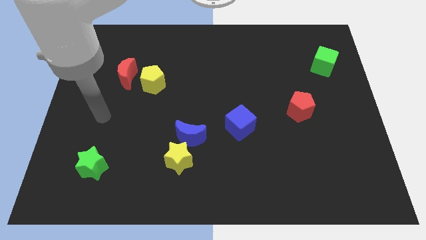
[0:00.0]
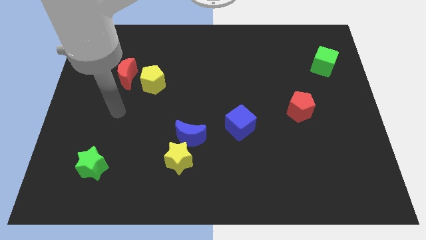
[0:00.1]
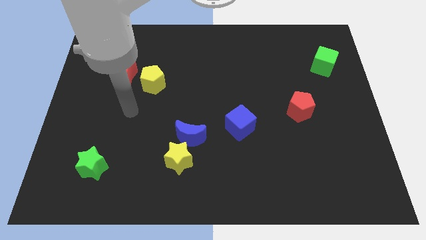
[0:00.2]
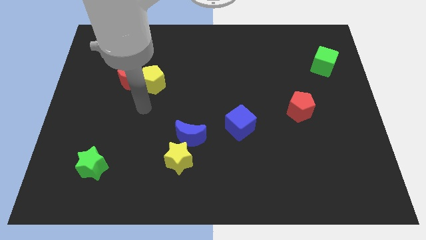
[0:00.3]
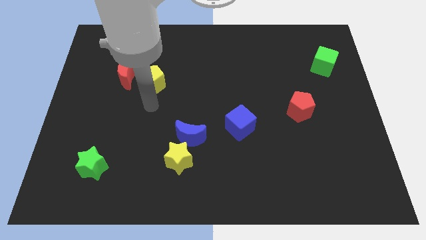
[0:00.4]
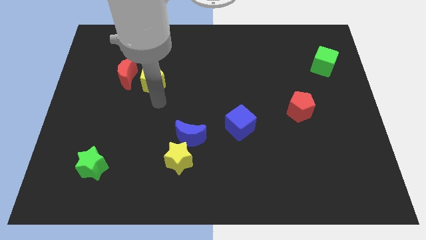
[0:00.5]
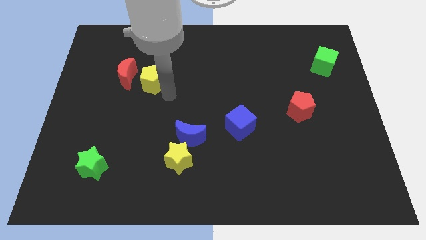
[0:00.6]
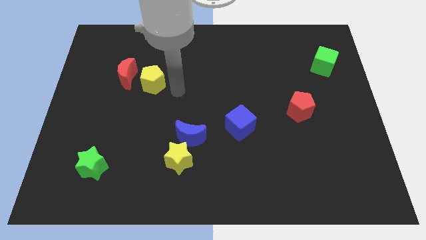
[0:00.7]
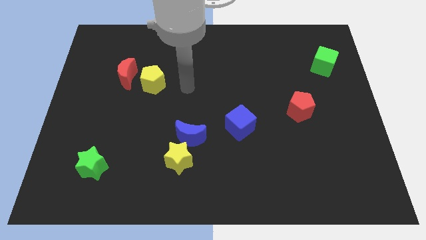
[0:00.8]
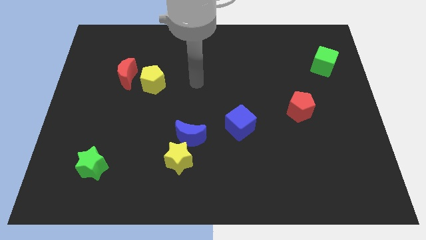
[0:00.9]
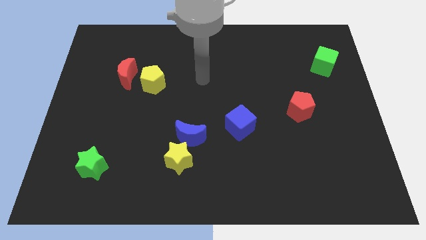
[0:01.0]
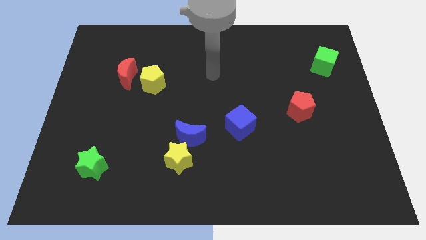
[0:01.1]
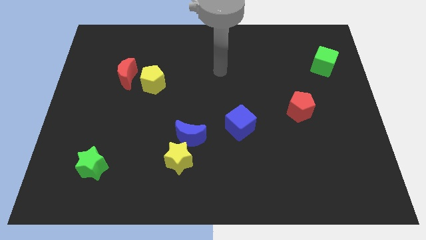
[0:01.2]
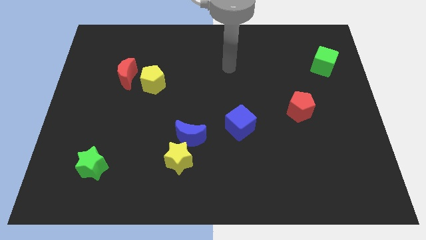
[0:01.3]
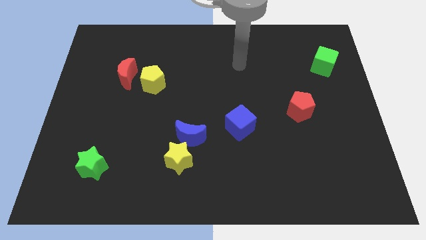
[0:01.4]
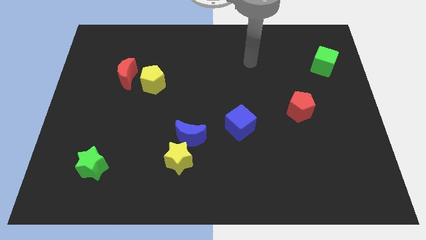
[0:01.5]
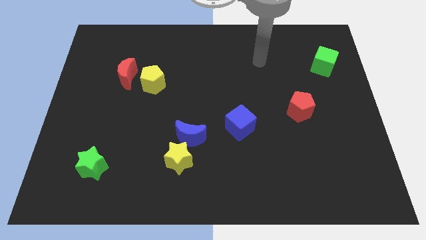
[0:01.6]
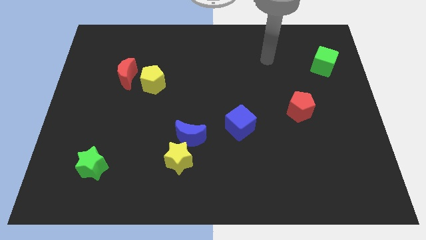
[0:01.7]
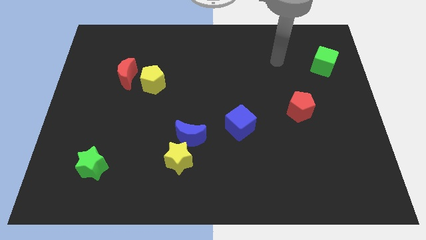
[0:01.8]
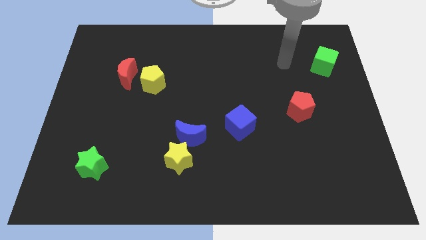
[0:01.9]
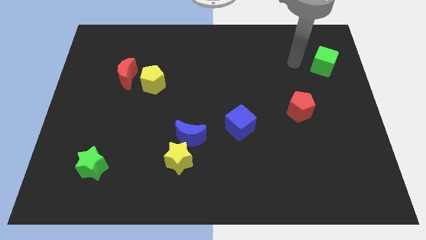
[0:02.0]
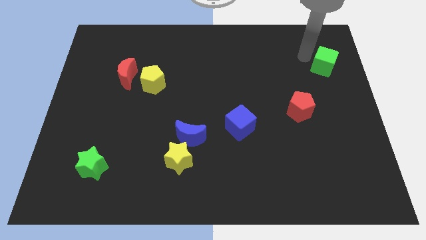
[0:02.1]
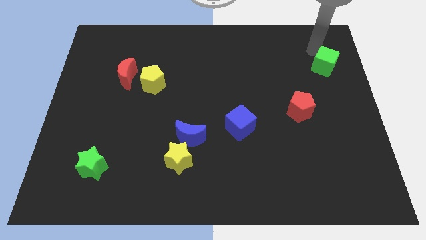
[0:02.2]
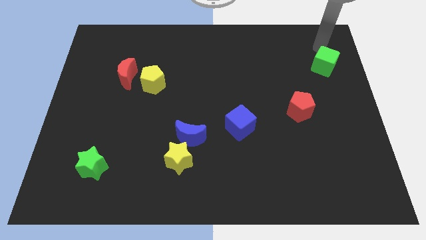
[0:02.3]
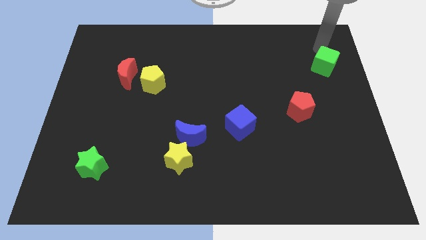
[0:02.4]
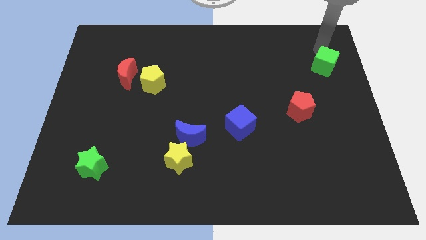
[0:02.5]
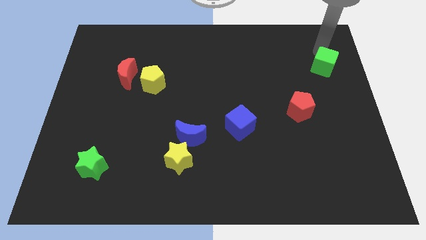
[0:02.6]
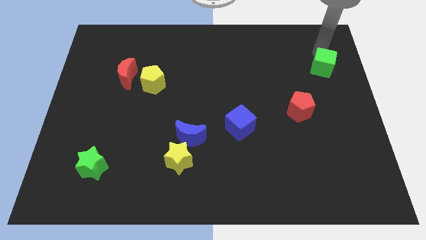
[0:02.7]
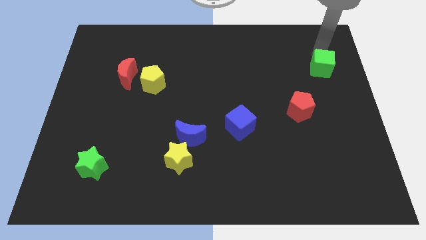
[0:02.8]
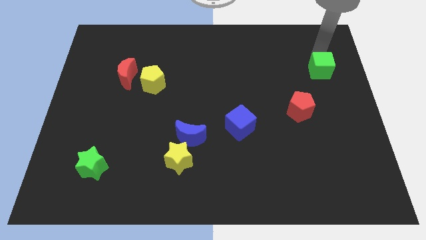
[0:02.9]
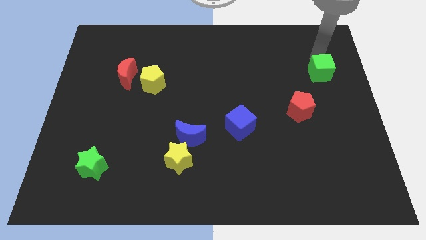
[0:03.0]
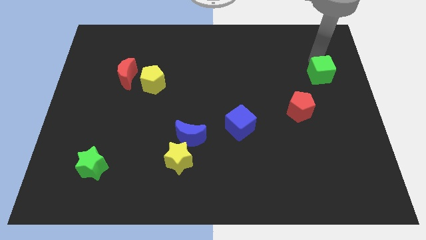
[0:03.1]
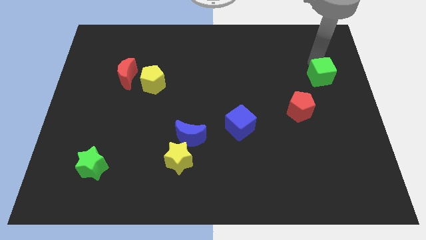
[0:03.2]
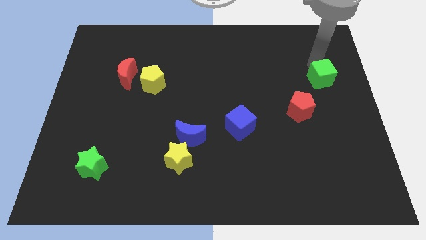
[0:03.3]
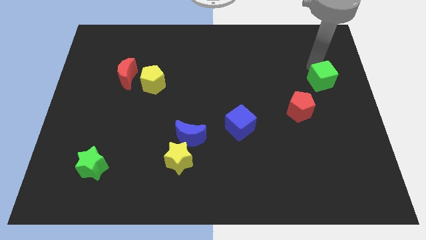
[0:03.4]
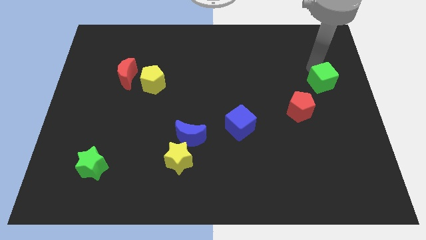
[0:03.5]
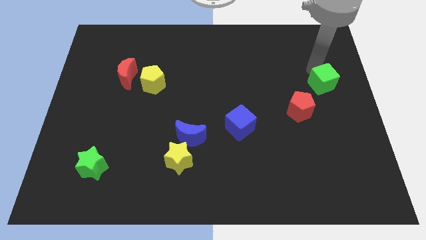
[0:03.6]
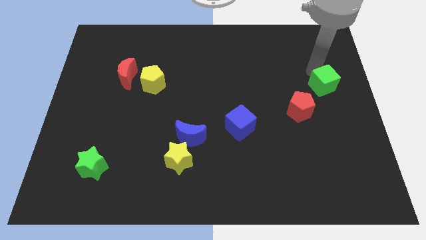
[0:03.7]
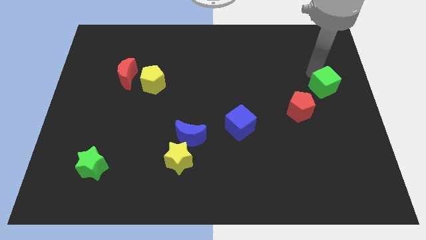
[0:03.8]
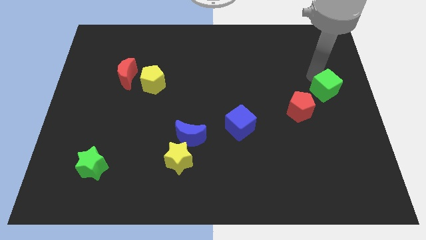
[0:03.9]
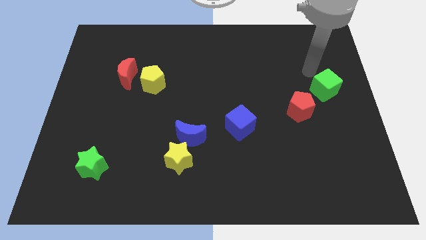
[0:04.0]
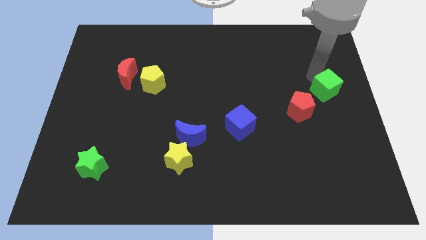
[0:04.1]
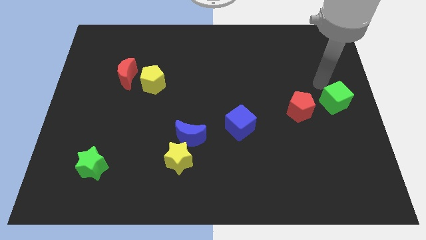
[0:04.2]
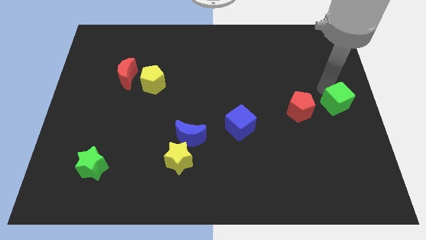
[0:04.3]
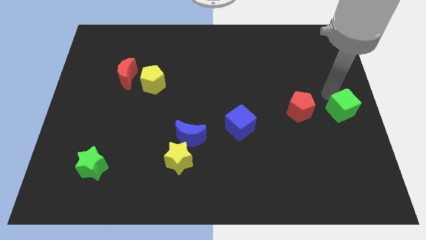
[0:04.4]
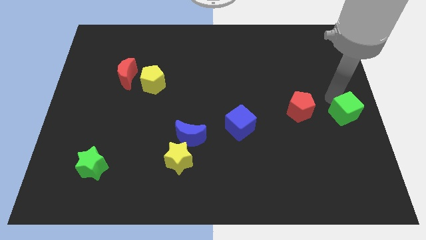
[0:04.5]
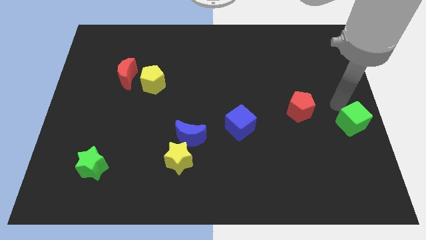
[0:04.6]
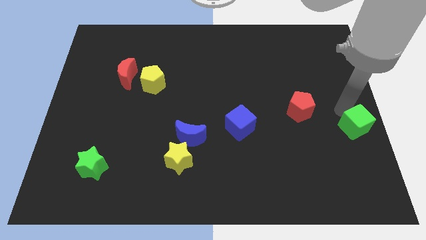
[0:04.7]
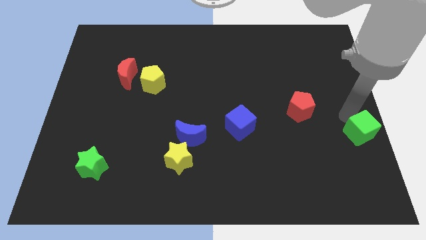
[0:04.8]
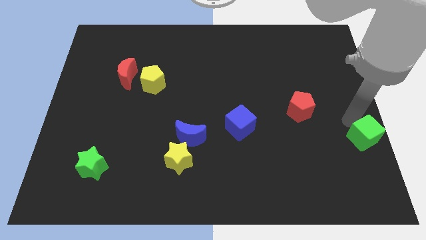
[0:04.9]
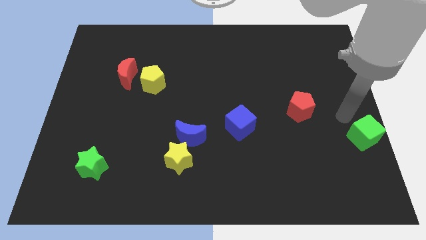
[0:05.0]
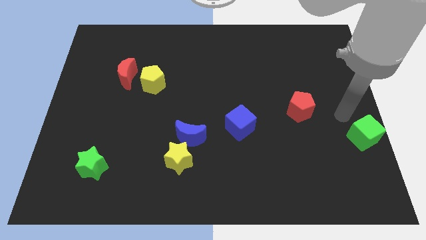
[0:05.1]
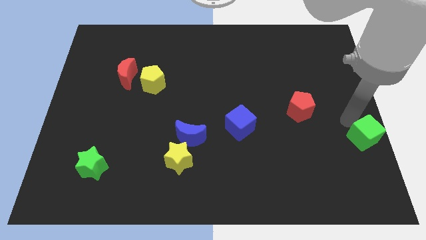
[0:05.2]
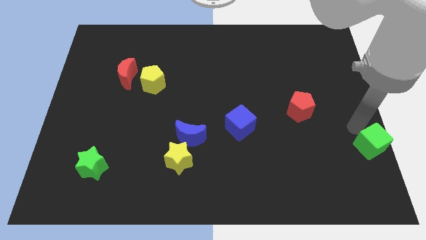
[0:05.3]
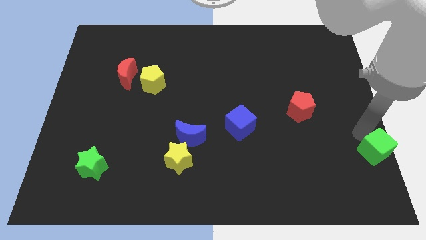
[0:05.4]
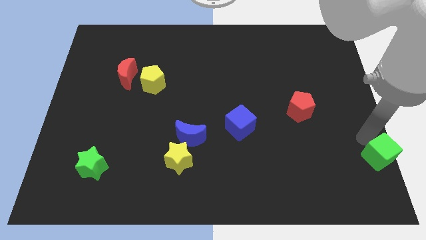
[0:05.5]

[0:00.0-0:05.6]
push the green cube to the lower right corner

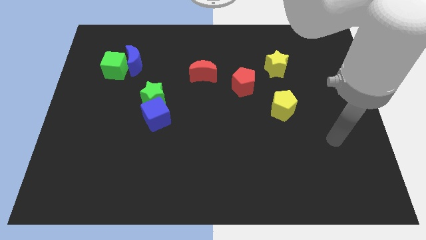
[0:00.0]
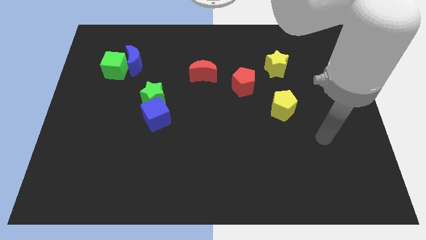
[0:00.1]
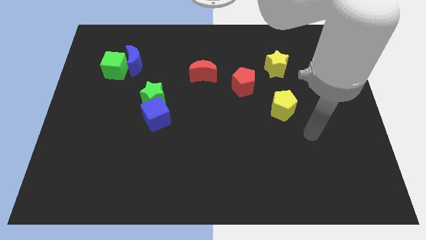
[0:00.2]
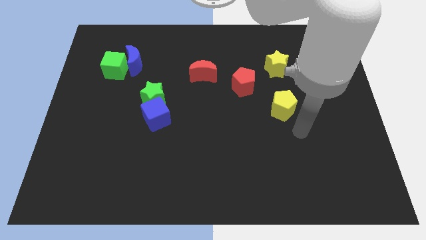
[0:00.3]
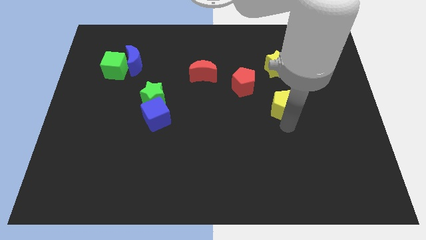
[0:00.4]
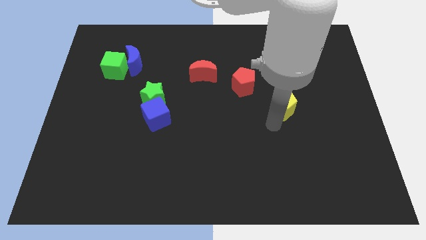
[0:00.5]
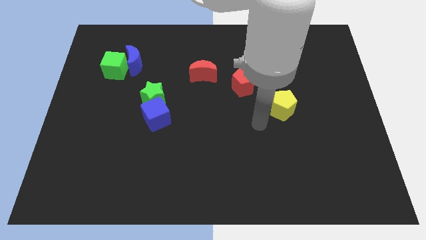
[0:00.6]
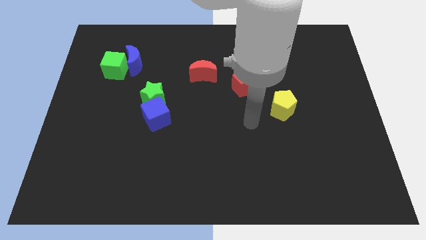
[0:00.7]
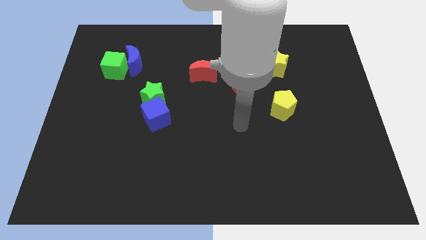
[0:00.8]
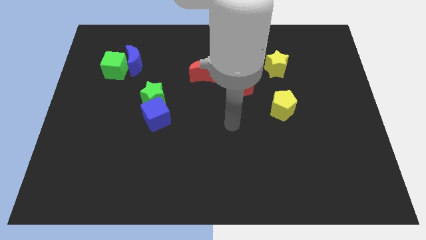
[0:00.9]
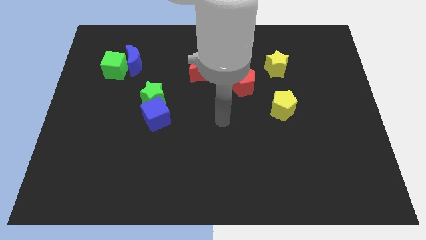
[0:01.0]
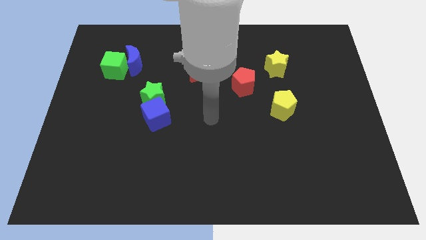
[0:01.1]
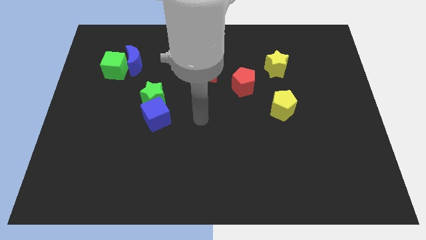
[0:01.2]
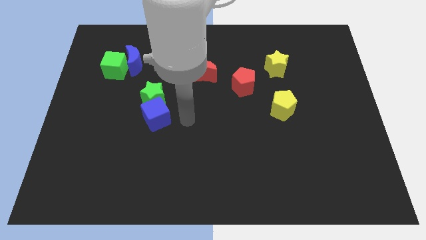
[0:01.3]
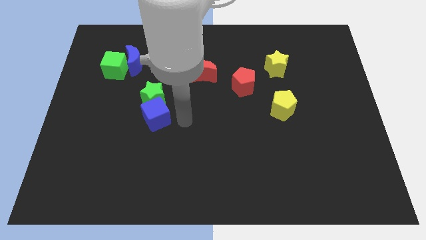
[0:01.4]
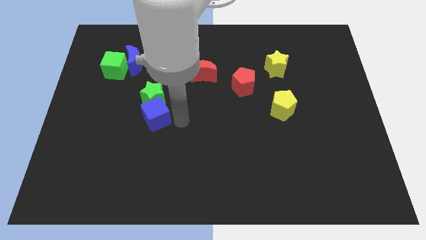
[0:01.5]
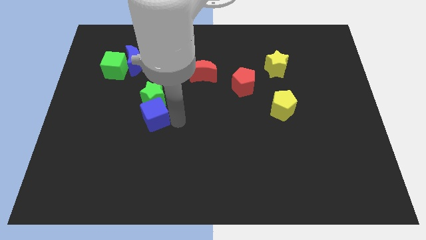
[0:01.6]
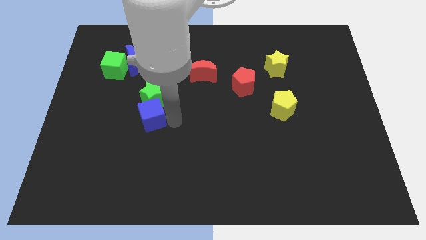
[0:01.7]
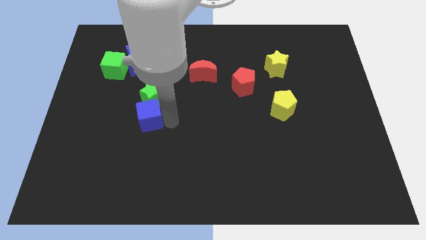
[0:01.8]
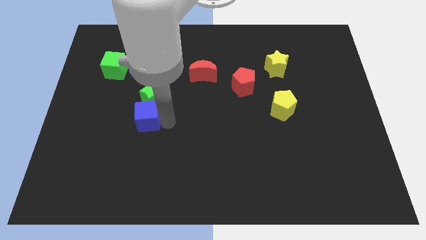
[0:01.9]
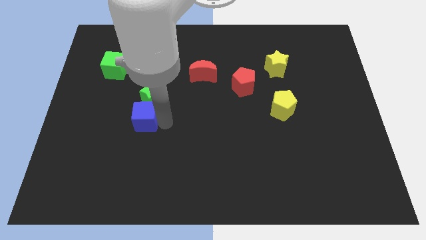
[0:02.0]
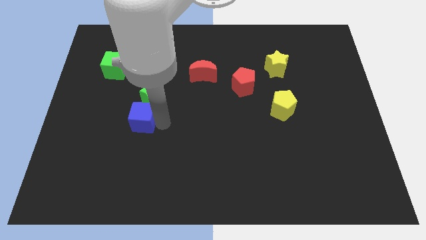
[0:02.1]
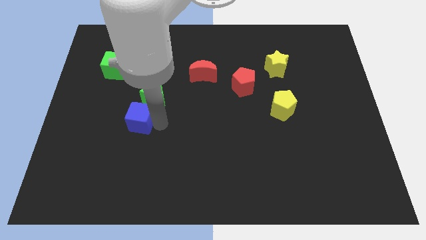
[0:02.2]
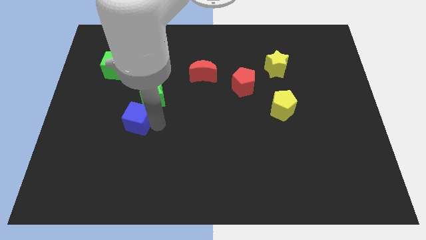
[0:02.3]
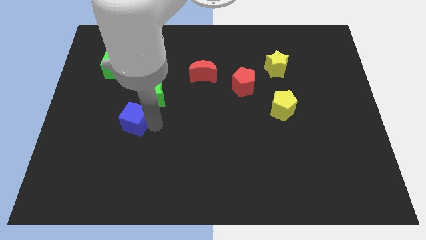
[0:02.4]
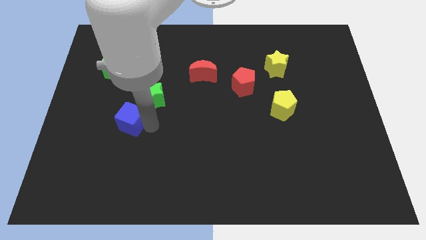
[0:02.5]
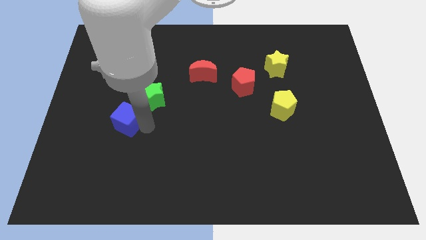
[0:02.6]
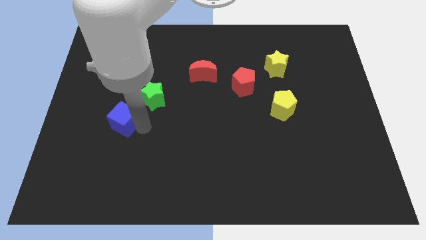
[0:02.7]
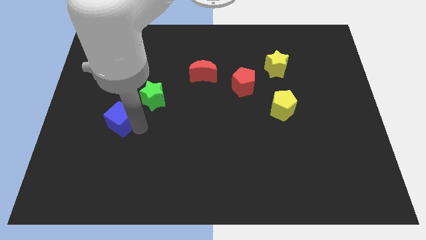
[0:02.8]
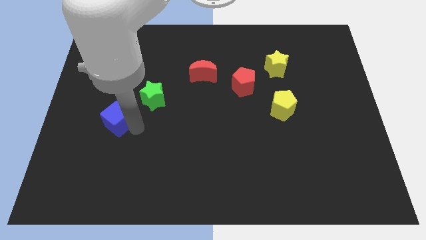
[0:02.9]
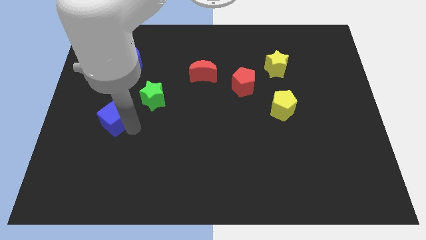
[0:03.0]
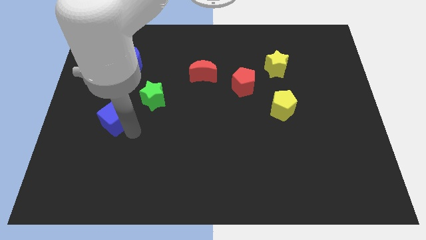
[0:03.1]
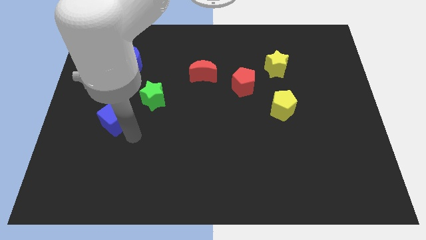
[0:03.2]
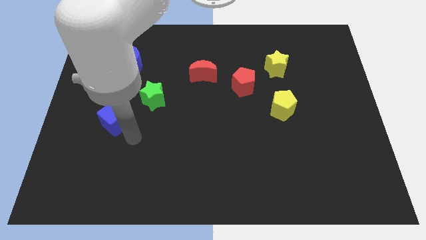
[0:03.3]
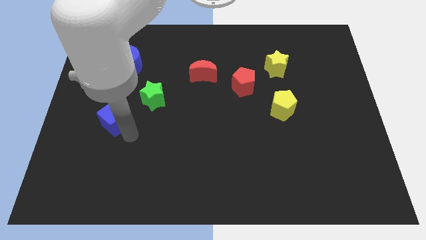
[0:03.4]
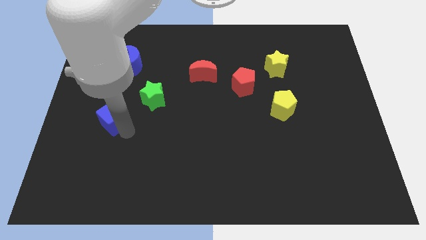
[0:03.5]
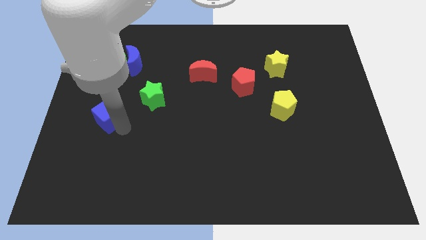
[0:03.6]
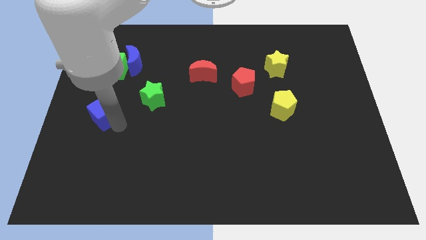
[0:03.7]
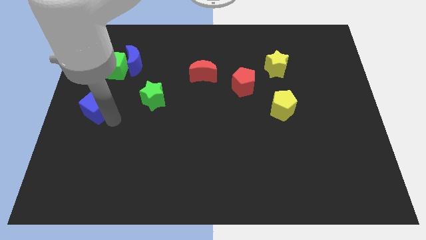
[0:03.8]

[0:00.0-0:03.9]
move the blue cube to the center left
